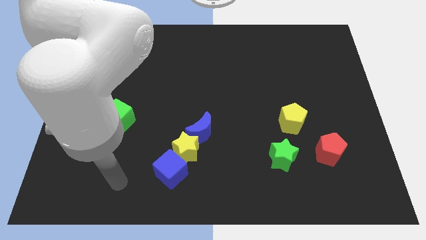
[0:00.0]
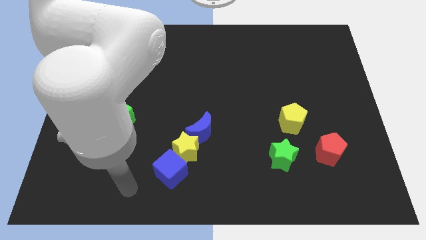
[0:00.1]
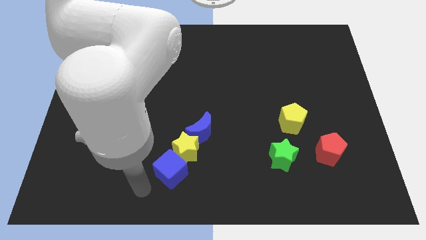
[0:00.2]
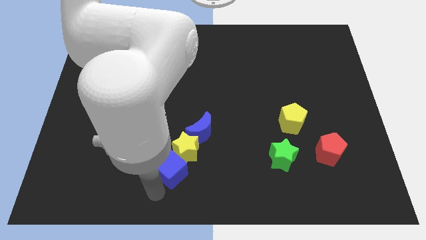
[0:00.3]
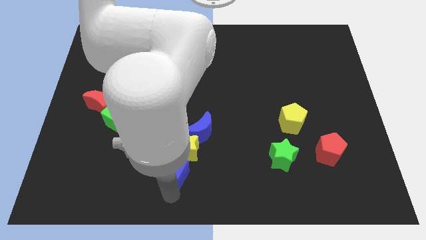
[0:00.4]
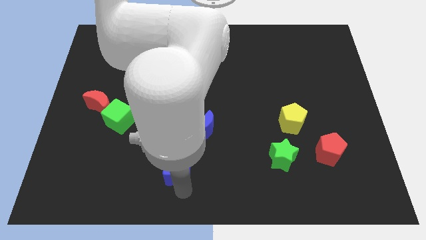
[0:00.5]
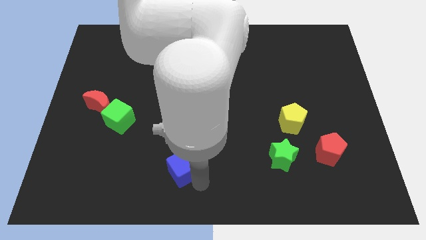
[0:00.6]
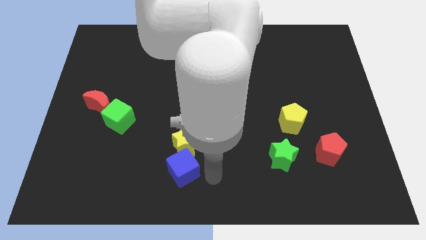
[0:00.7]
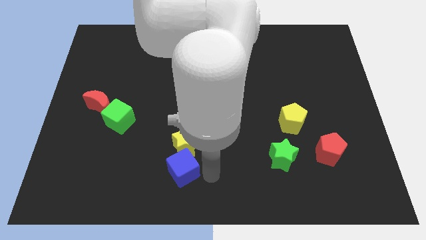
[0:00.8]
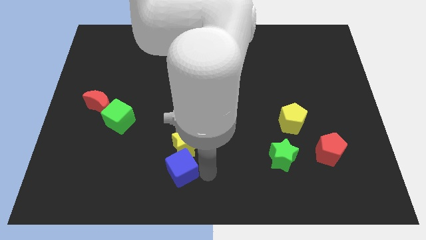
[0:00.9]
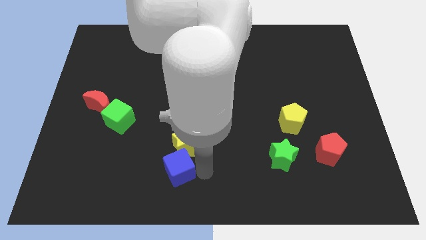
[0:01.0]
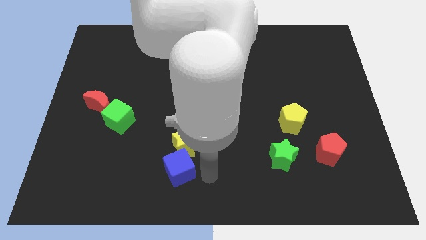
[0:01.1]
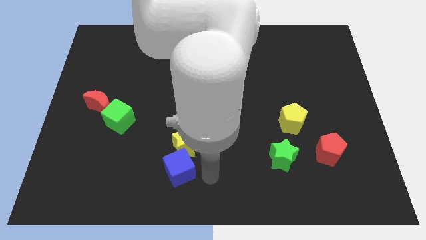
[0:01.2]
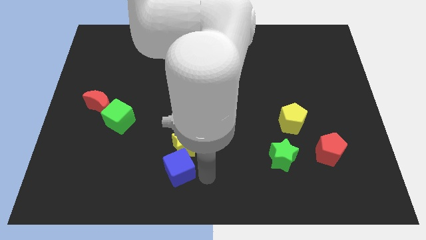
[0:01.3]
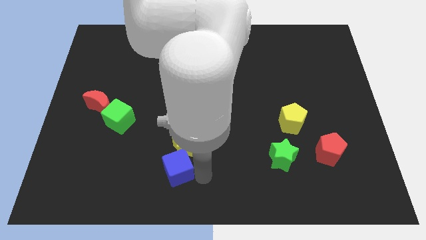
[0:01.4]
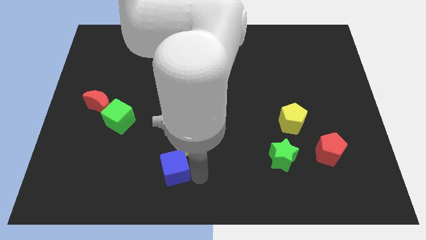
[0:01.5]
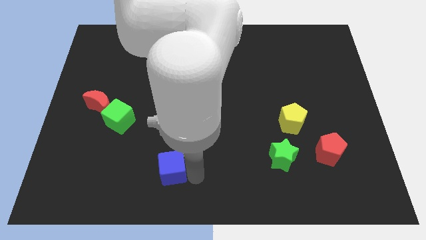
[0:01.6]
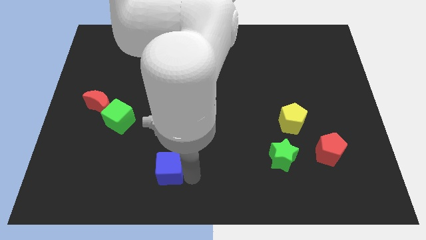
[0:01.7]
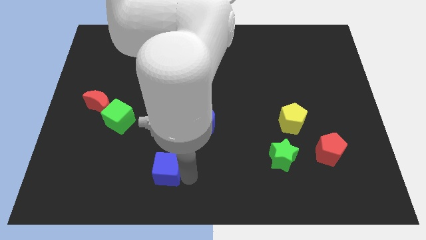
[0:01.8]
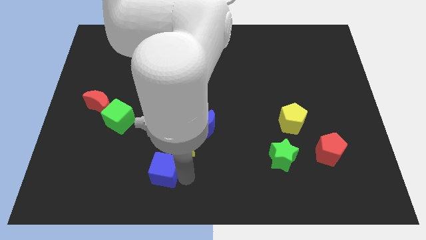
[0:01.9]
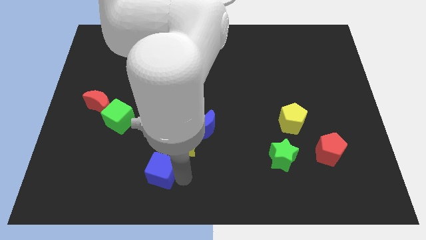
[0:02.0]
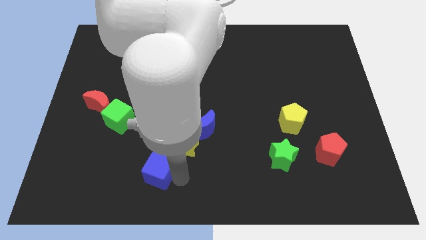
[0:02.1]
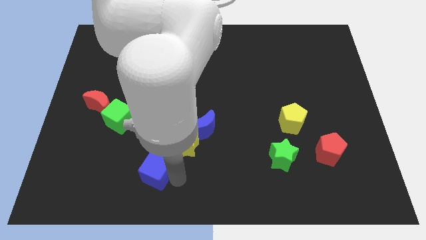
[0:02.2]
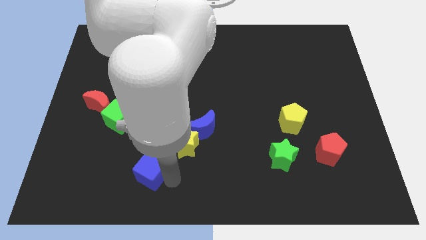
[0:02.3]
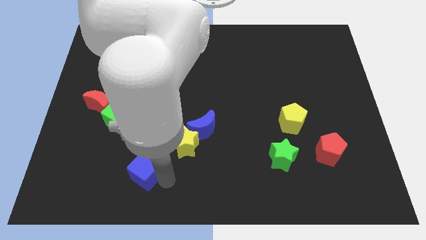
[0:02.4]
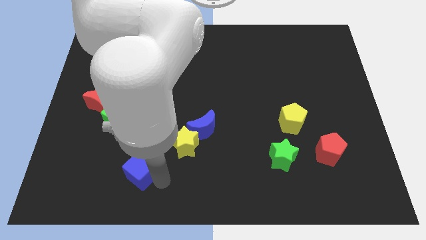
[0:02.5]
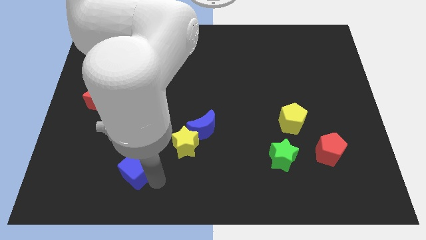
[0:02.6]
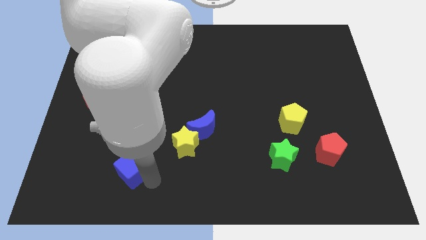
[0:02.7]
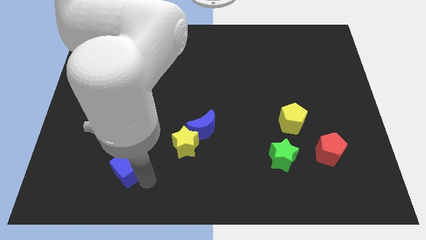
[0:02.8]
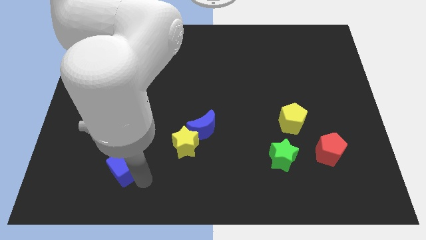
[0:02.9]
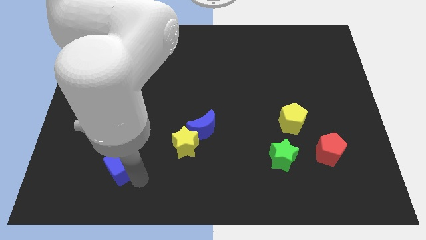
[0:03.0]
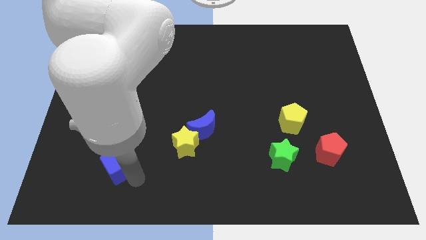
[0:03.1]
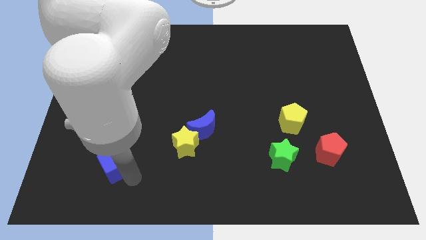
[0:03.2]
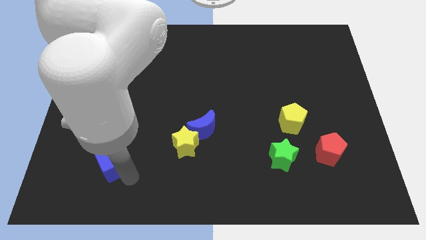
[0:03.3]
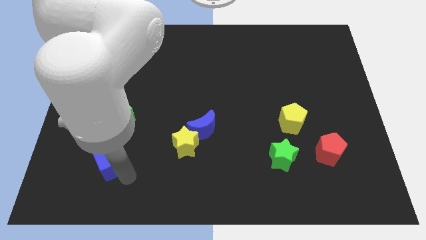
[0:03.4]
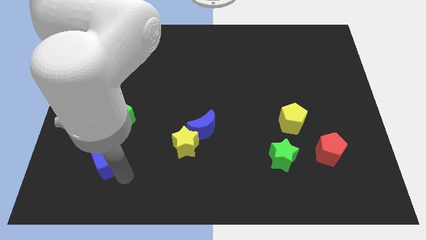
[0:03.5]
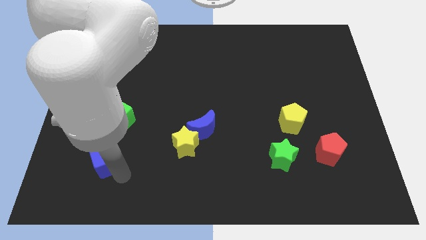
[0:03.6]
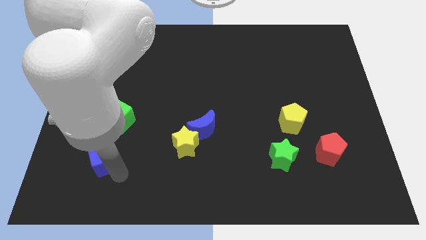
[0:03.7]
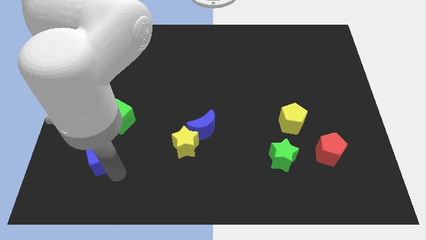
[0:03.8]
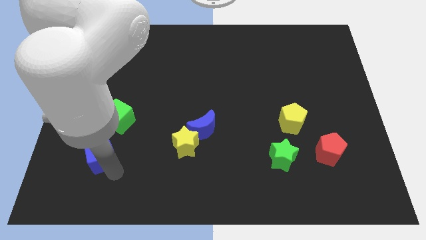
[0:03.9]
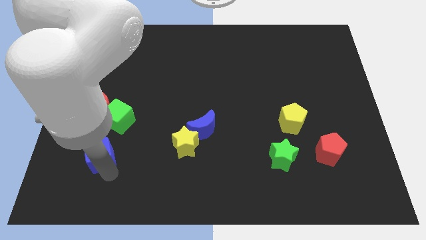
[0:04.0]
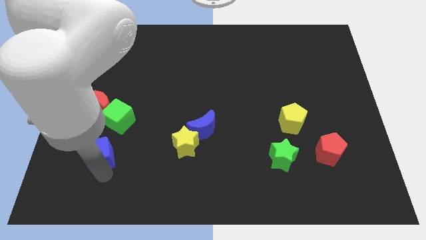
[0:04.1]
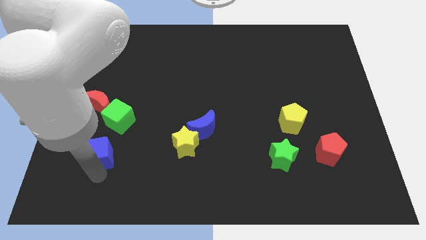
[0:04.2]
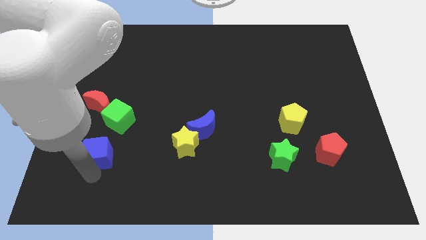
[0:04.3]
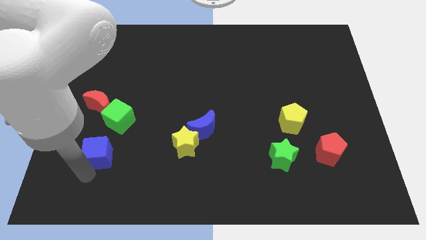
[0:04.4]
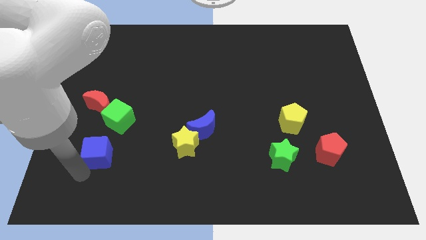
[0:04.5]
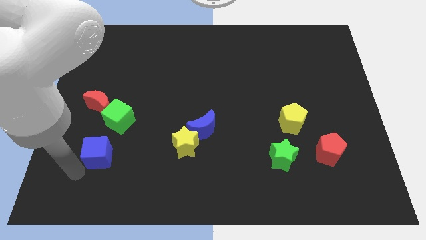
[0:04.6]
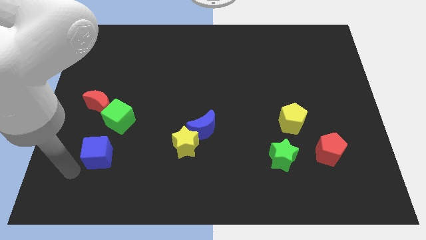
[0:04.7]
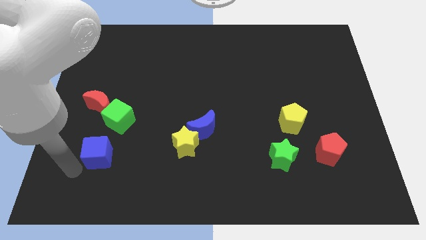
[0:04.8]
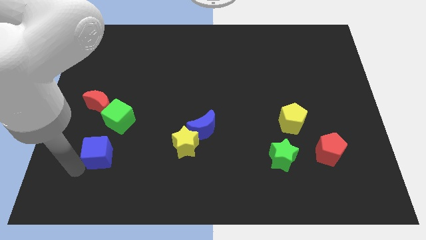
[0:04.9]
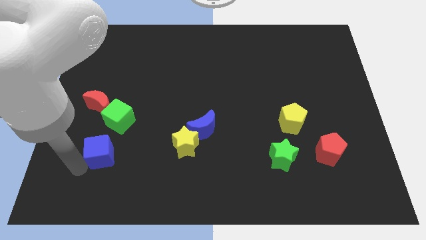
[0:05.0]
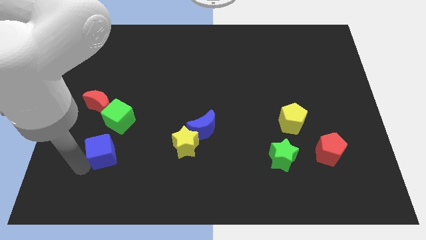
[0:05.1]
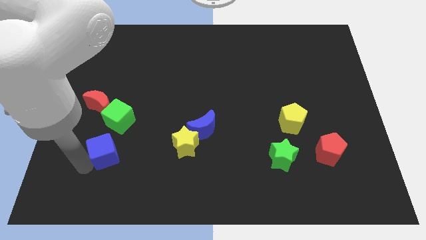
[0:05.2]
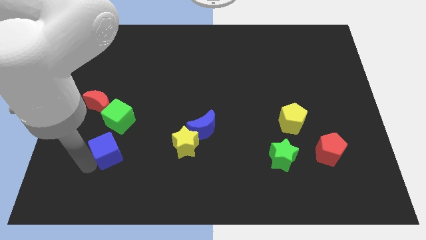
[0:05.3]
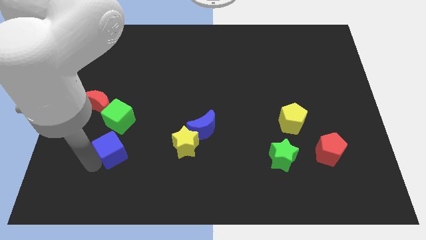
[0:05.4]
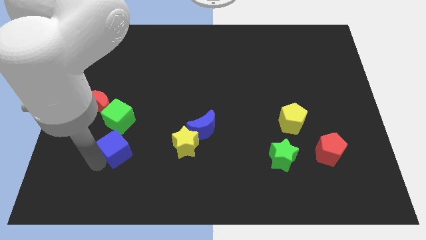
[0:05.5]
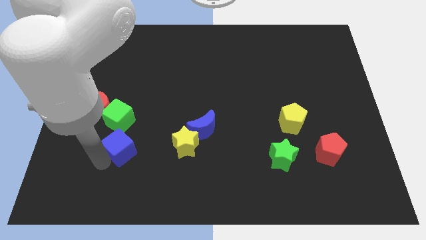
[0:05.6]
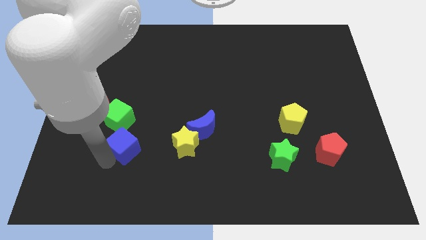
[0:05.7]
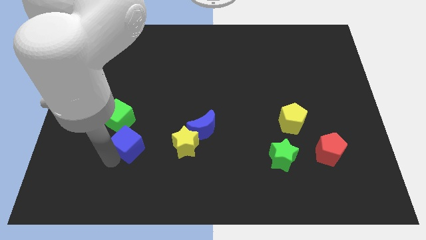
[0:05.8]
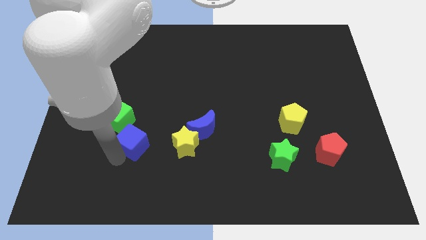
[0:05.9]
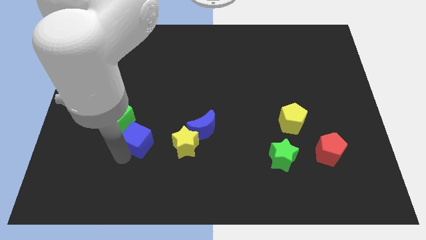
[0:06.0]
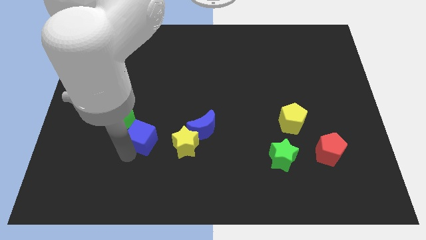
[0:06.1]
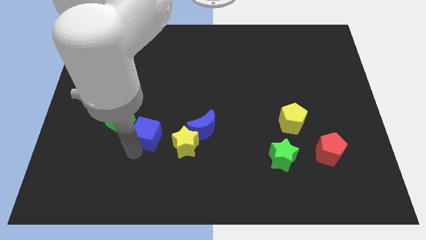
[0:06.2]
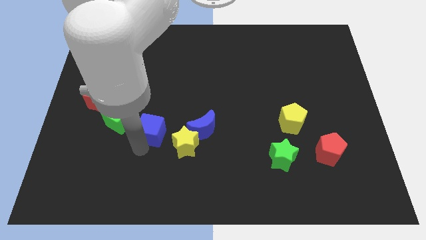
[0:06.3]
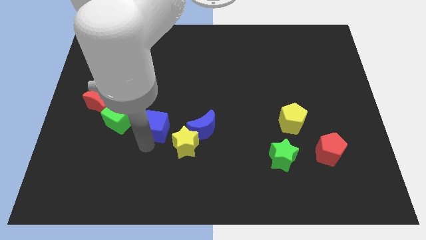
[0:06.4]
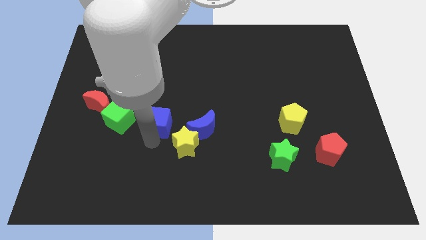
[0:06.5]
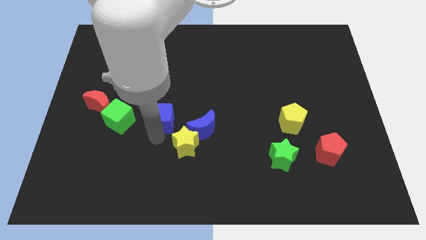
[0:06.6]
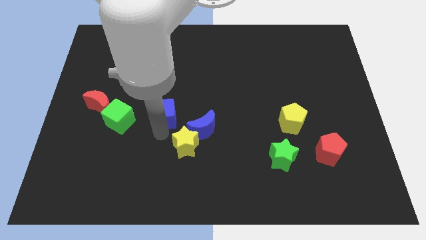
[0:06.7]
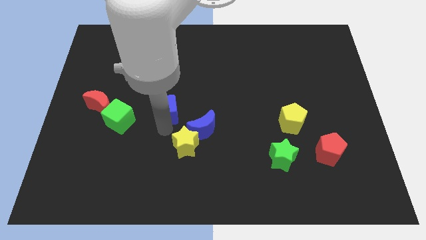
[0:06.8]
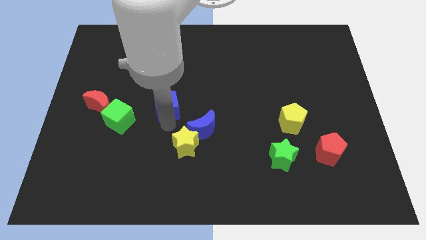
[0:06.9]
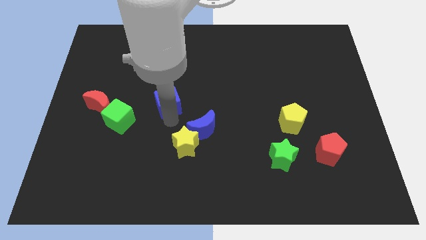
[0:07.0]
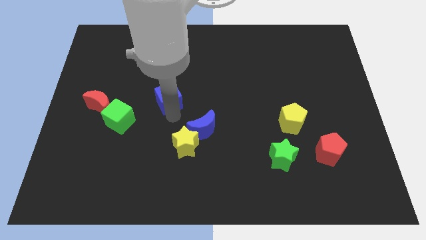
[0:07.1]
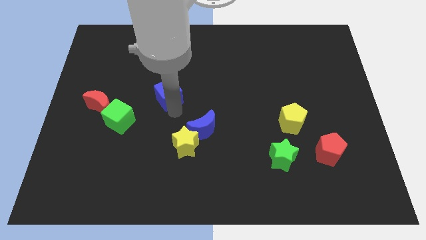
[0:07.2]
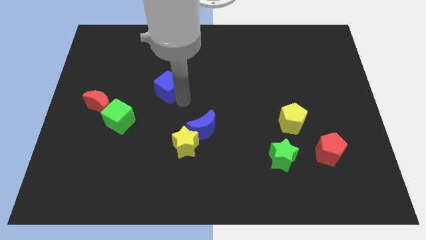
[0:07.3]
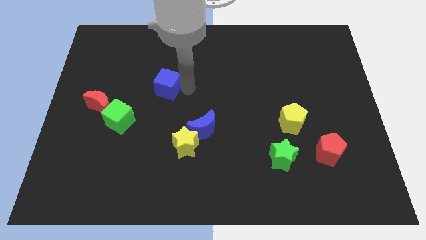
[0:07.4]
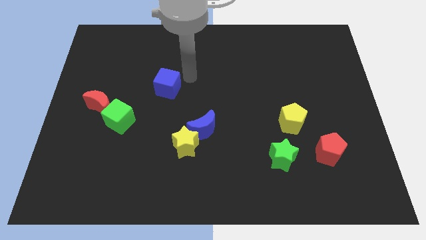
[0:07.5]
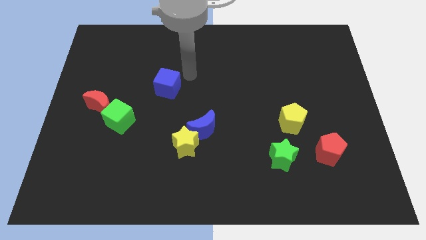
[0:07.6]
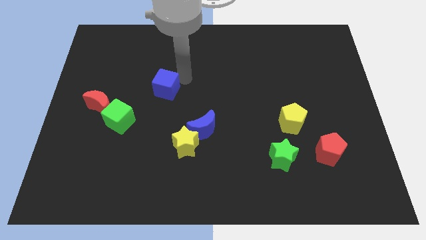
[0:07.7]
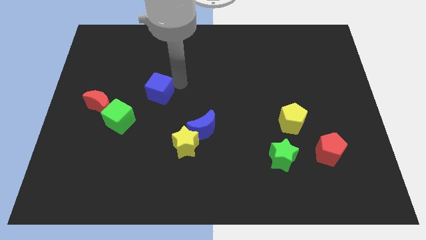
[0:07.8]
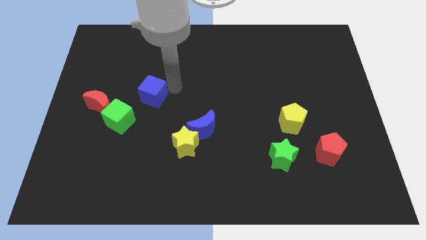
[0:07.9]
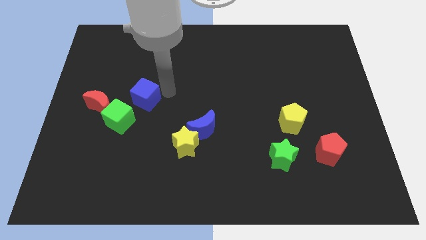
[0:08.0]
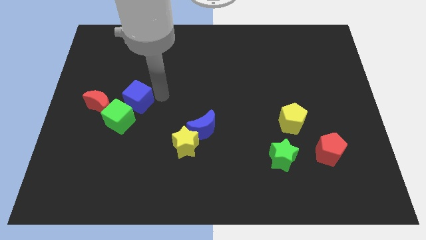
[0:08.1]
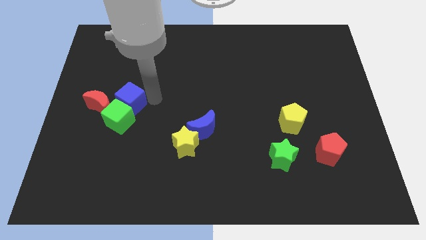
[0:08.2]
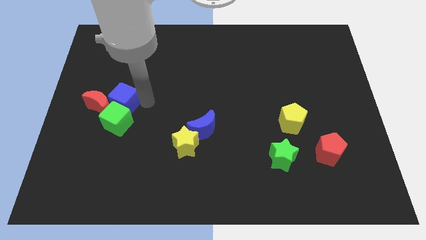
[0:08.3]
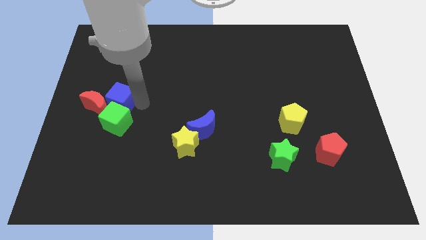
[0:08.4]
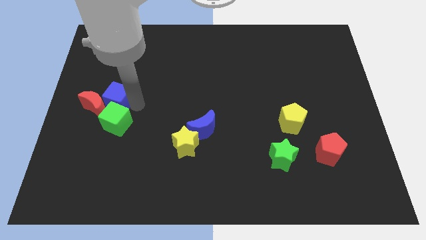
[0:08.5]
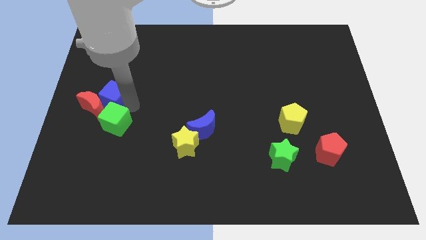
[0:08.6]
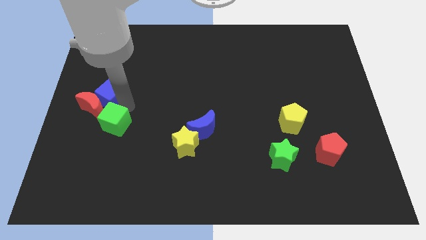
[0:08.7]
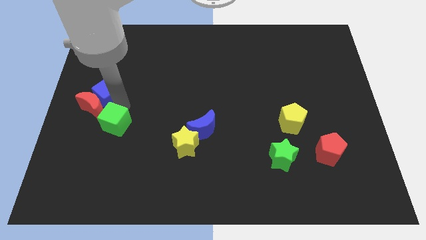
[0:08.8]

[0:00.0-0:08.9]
move the blue cube to the center left
